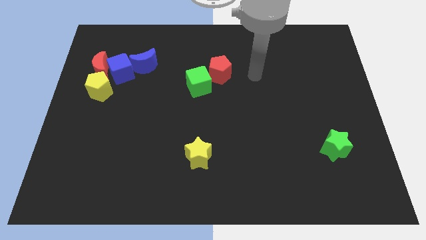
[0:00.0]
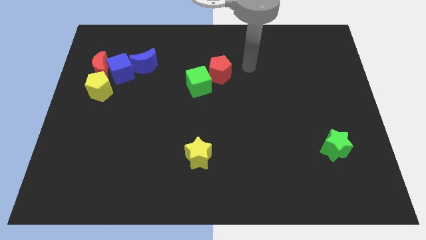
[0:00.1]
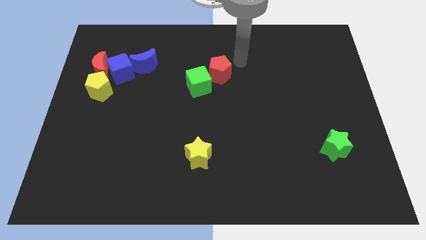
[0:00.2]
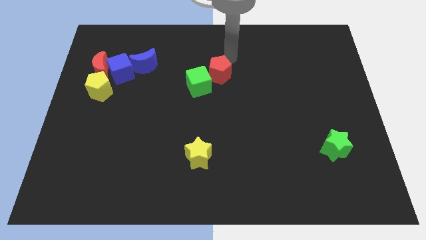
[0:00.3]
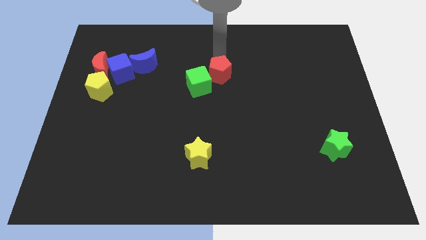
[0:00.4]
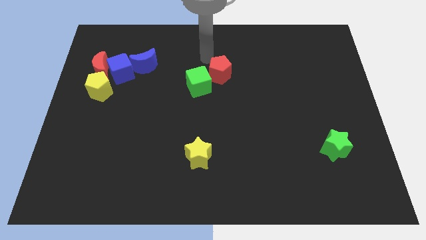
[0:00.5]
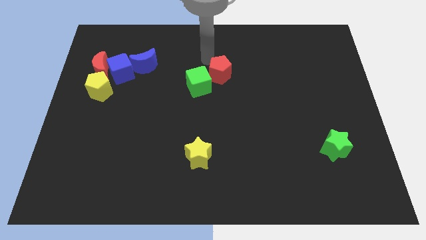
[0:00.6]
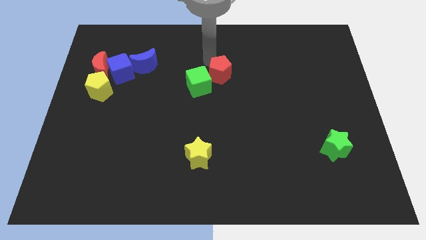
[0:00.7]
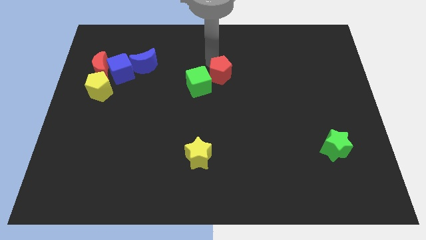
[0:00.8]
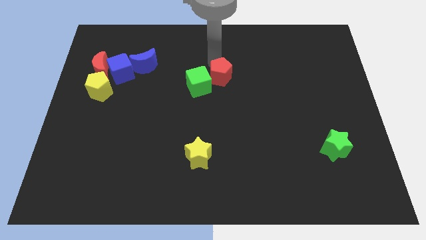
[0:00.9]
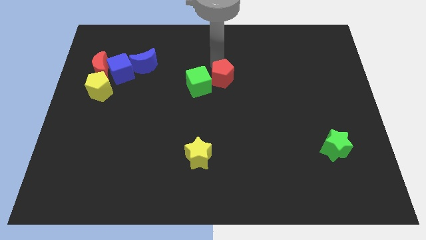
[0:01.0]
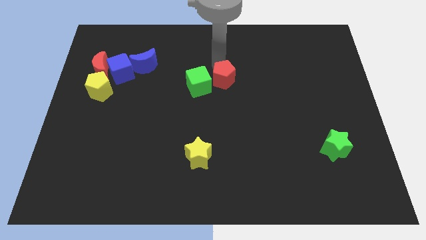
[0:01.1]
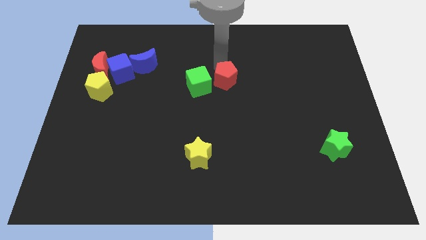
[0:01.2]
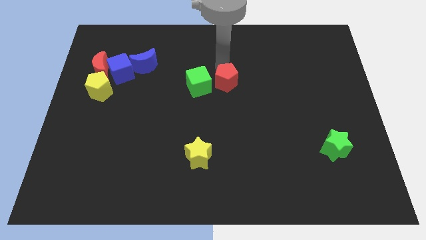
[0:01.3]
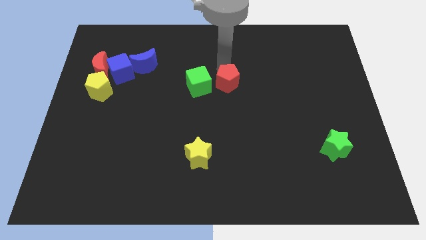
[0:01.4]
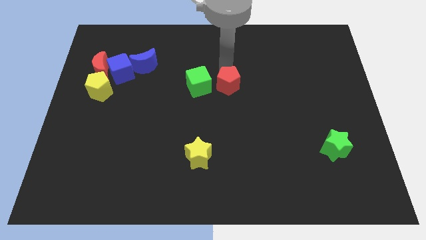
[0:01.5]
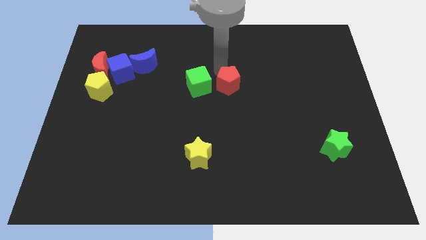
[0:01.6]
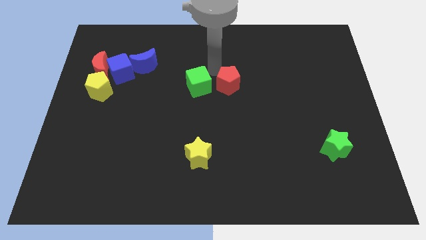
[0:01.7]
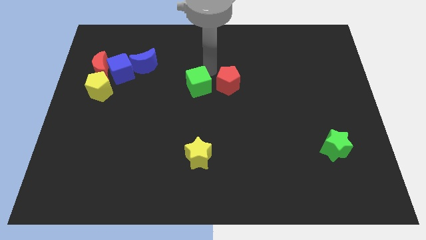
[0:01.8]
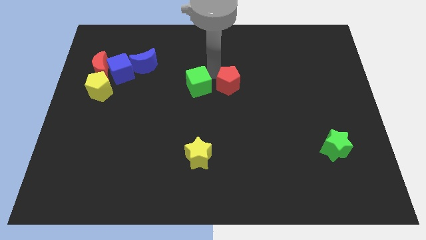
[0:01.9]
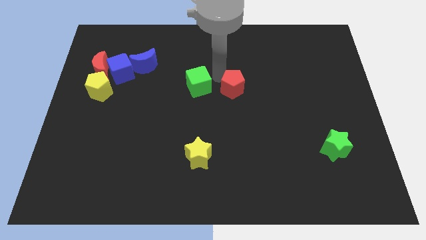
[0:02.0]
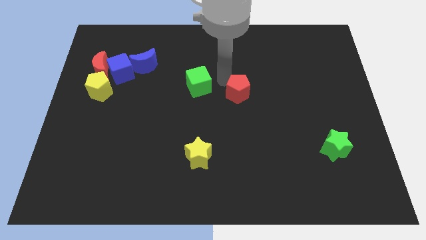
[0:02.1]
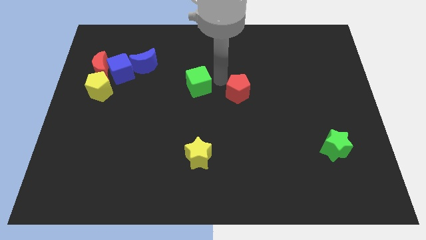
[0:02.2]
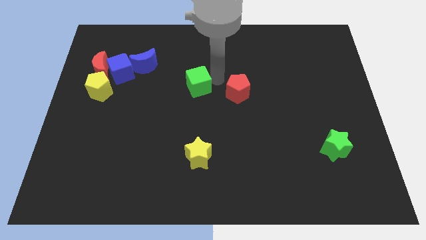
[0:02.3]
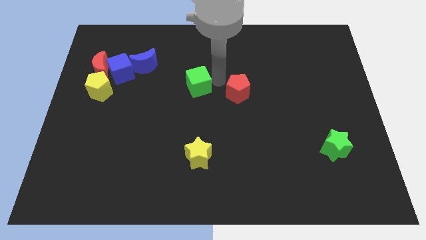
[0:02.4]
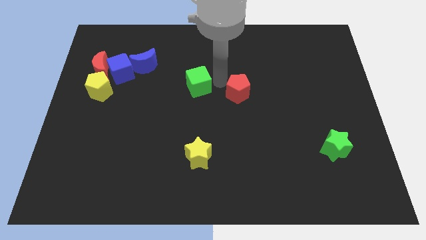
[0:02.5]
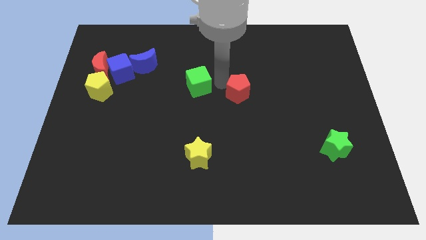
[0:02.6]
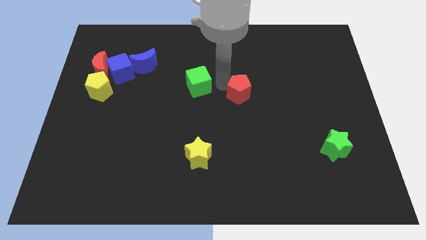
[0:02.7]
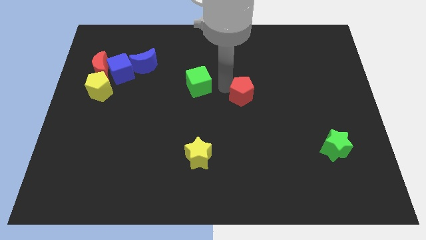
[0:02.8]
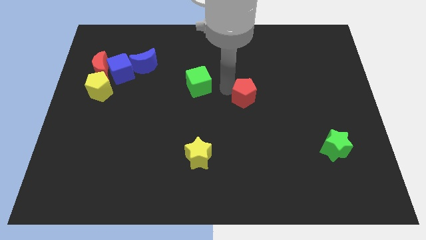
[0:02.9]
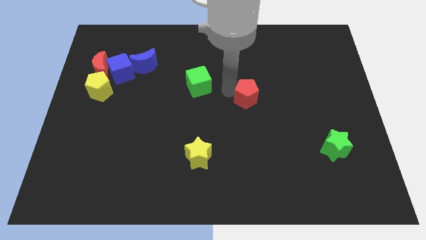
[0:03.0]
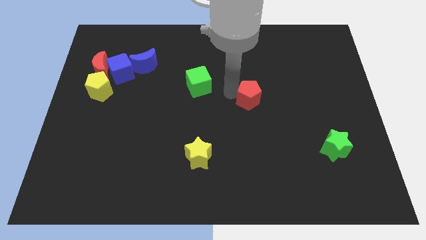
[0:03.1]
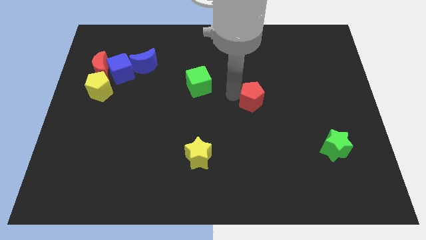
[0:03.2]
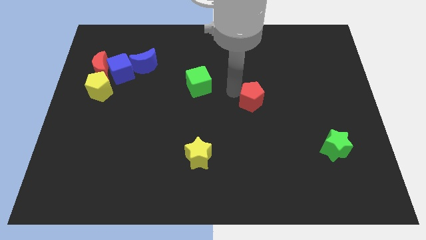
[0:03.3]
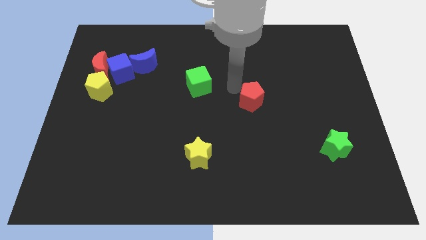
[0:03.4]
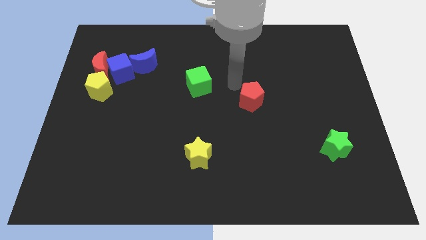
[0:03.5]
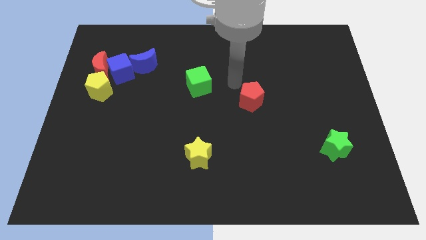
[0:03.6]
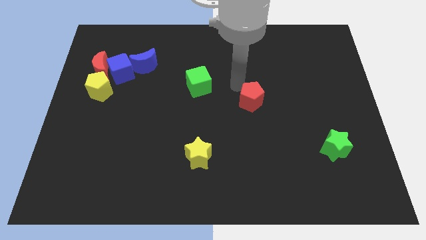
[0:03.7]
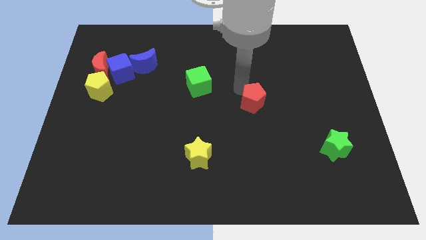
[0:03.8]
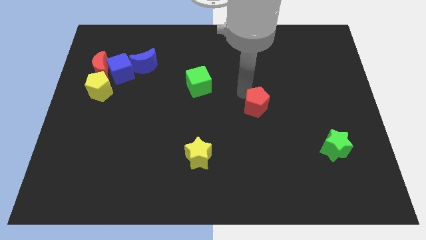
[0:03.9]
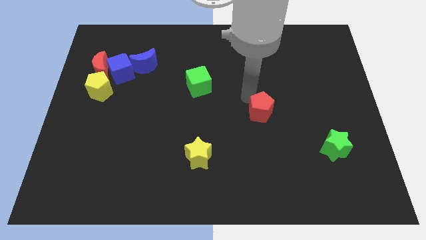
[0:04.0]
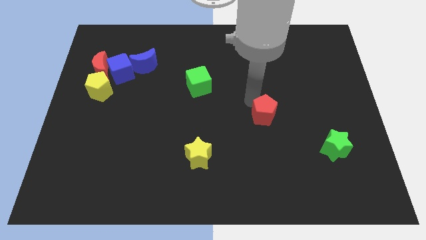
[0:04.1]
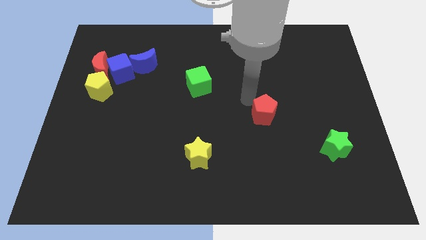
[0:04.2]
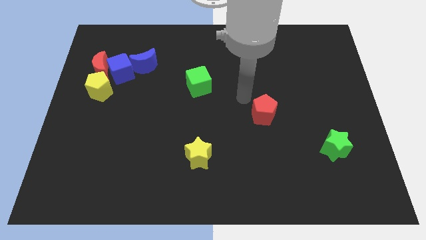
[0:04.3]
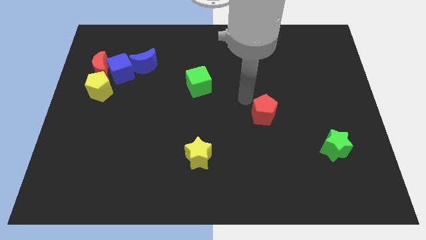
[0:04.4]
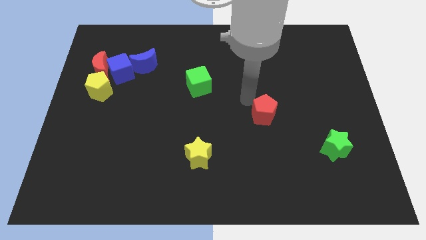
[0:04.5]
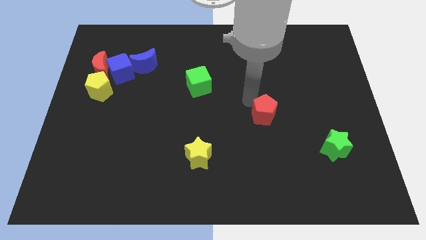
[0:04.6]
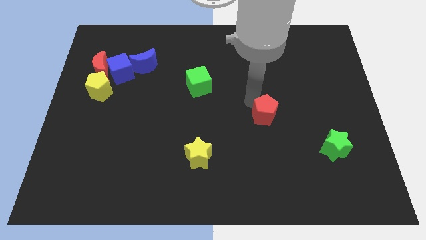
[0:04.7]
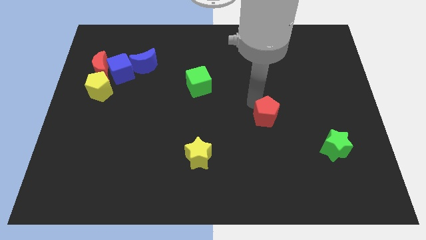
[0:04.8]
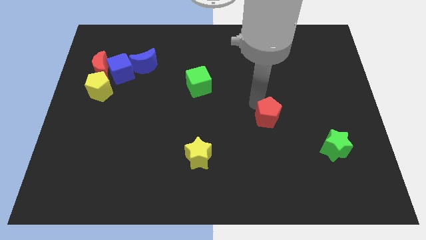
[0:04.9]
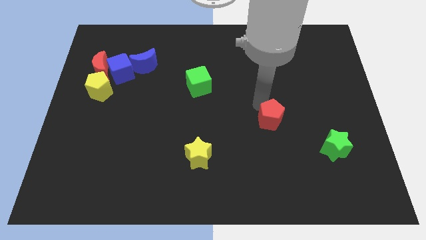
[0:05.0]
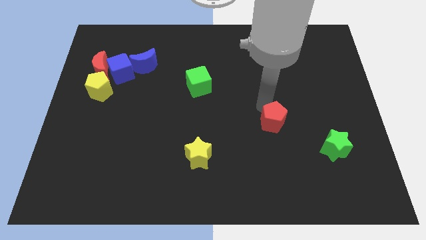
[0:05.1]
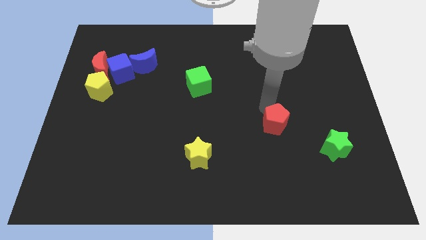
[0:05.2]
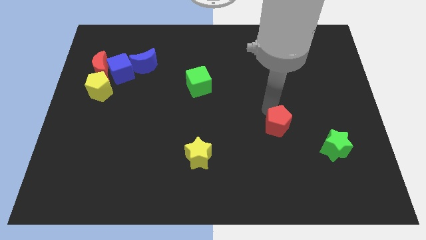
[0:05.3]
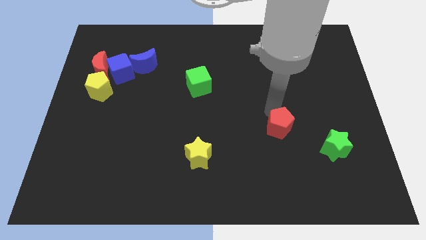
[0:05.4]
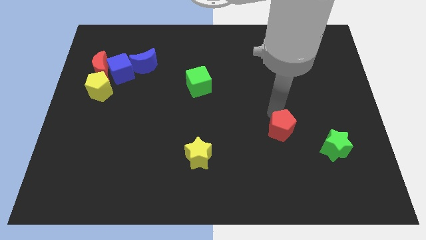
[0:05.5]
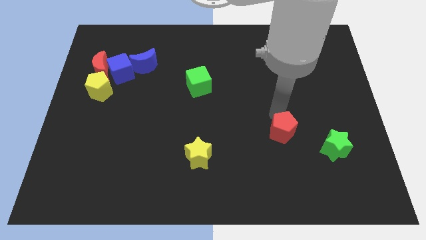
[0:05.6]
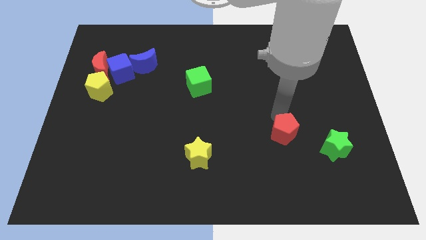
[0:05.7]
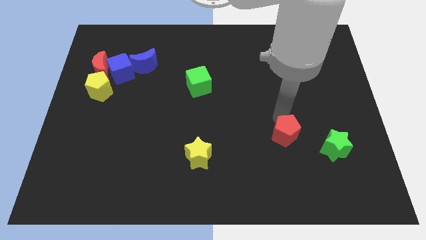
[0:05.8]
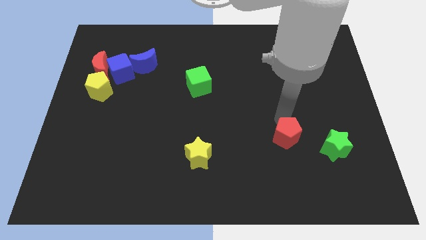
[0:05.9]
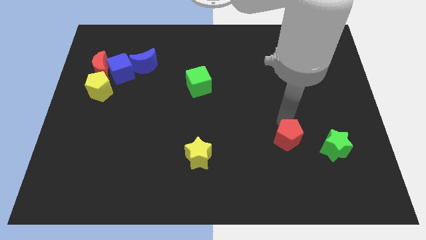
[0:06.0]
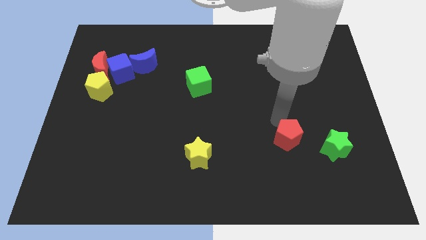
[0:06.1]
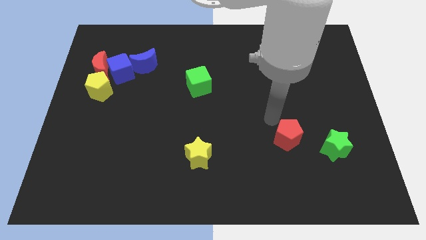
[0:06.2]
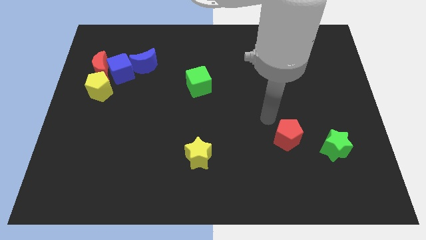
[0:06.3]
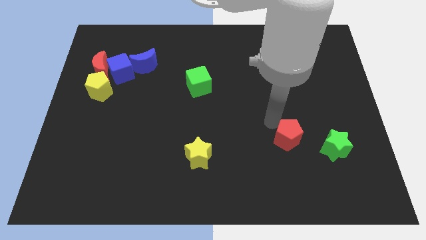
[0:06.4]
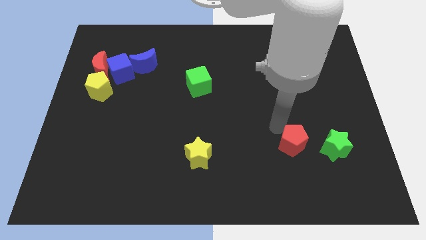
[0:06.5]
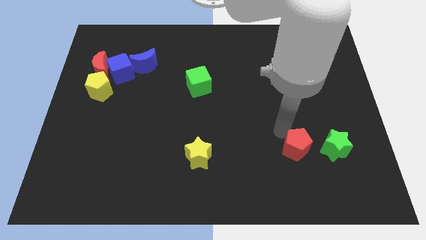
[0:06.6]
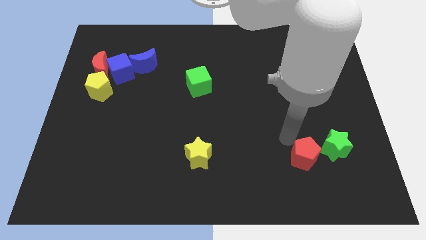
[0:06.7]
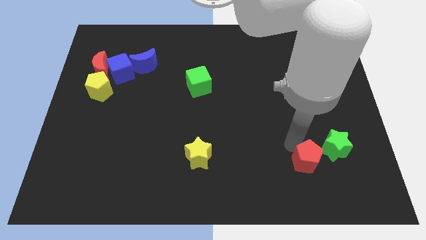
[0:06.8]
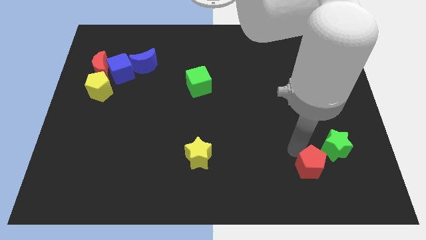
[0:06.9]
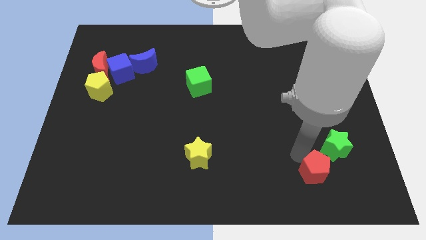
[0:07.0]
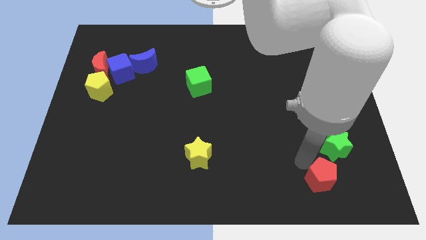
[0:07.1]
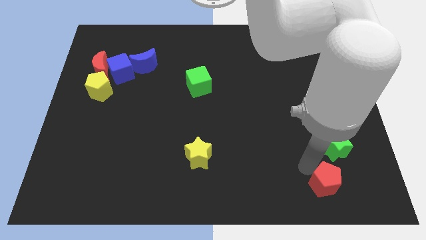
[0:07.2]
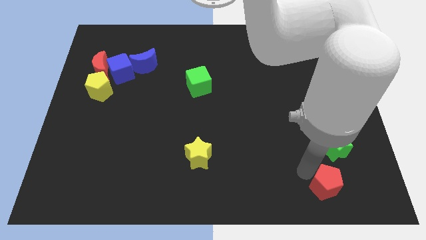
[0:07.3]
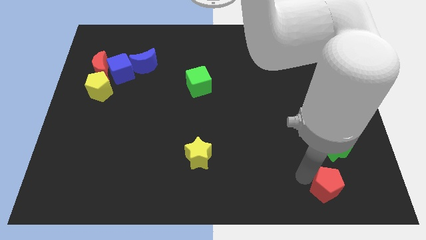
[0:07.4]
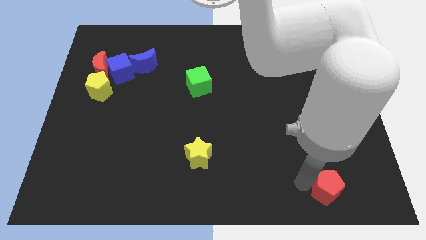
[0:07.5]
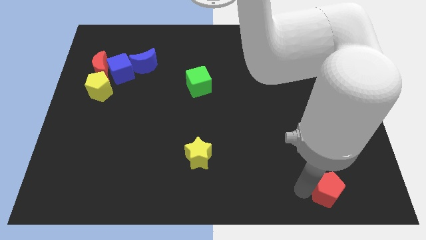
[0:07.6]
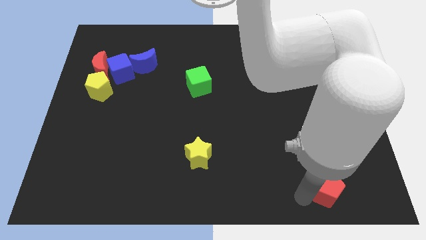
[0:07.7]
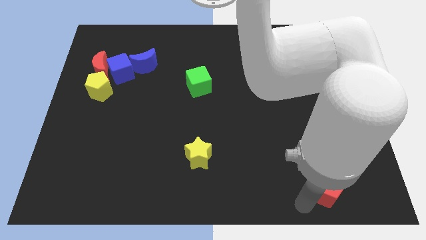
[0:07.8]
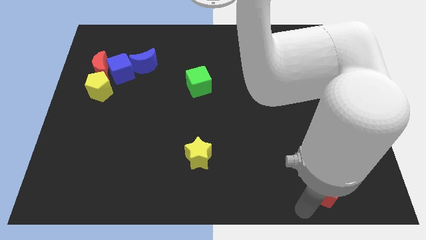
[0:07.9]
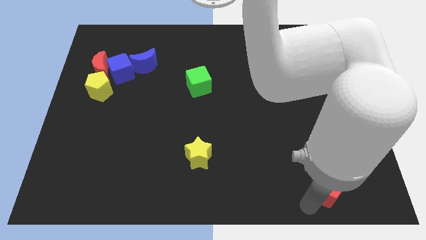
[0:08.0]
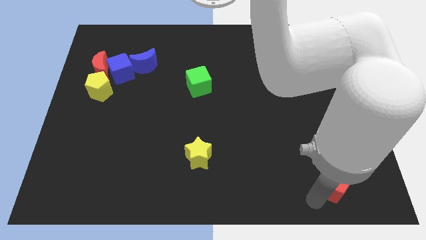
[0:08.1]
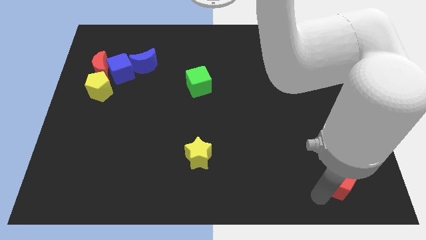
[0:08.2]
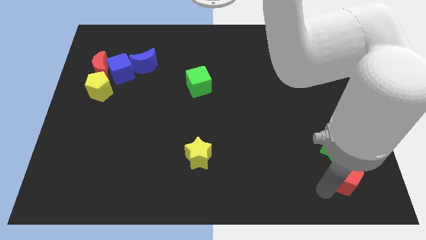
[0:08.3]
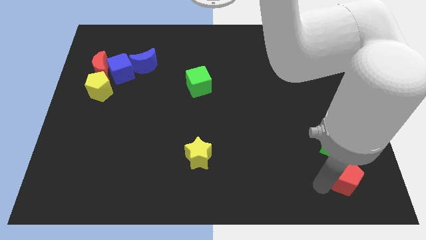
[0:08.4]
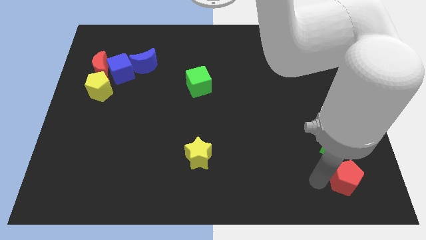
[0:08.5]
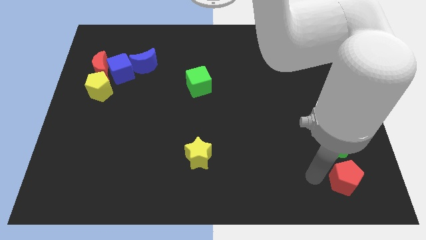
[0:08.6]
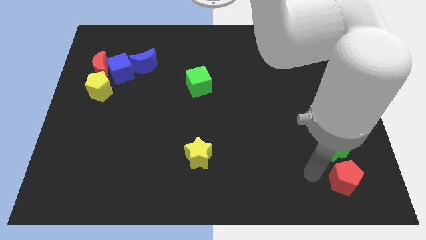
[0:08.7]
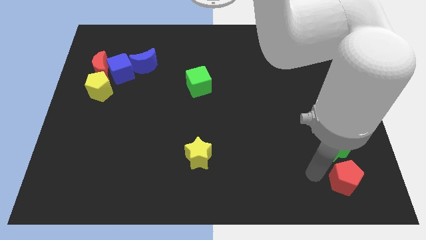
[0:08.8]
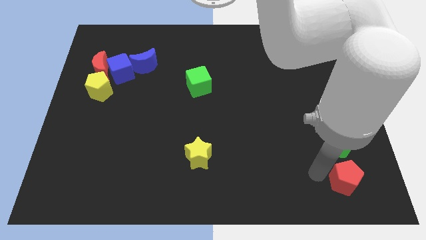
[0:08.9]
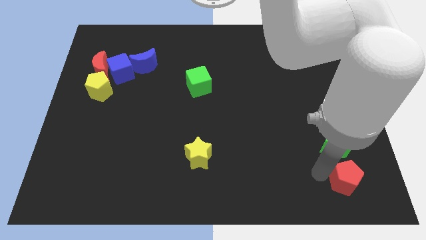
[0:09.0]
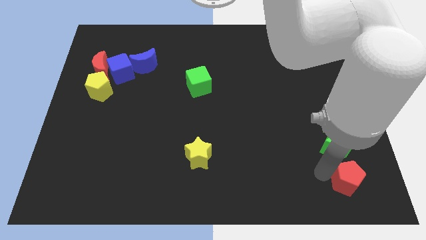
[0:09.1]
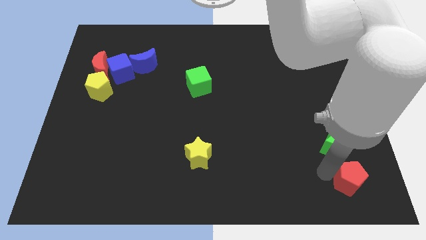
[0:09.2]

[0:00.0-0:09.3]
move the red pentagon to the lower right corner
